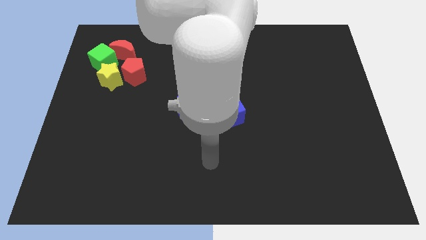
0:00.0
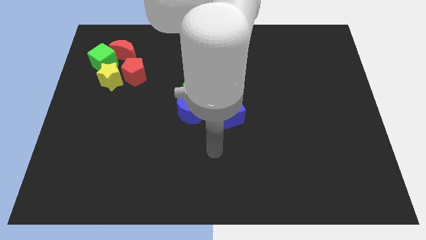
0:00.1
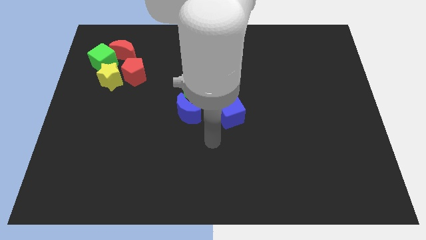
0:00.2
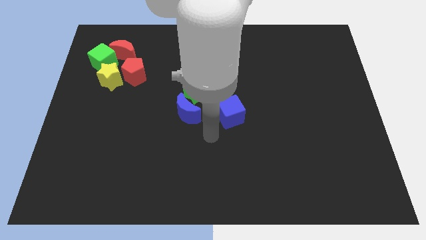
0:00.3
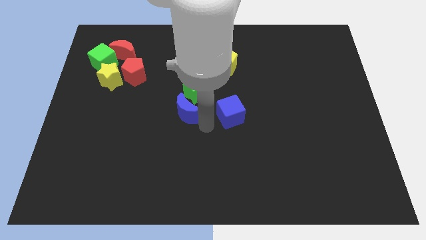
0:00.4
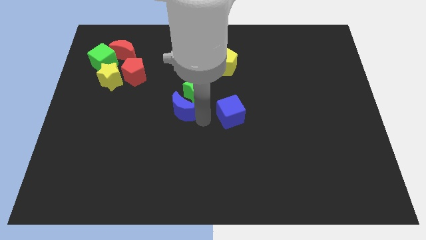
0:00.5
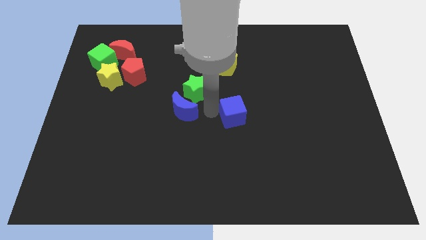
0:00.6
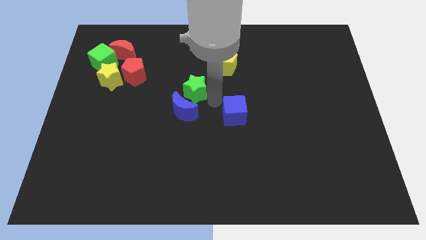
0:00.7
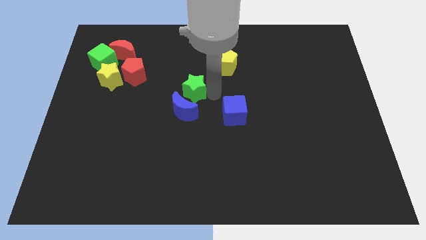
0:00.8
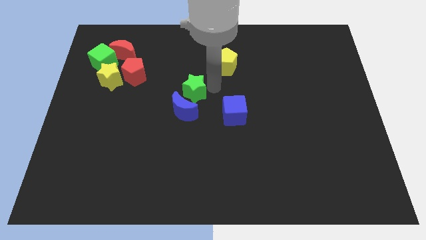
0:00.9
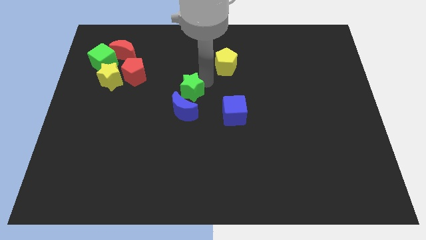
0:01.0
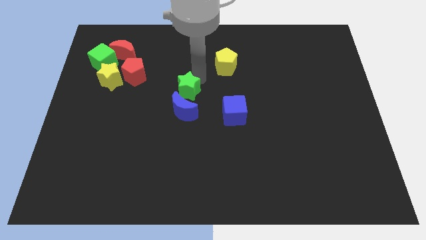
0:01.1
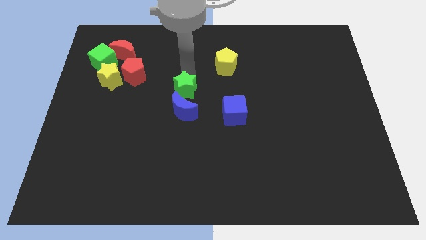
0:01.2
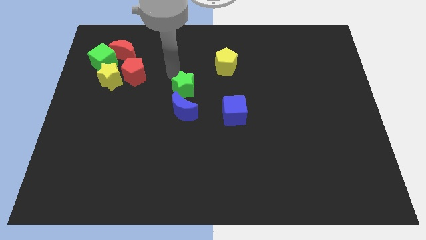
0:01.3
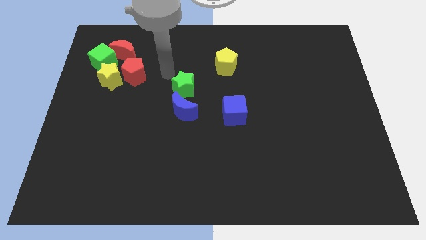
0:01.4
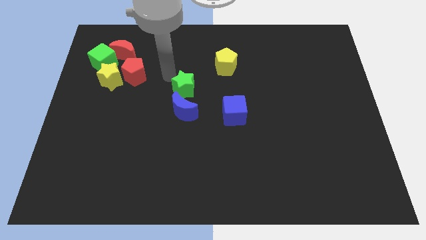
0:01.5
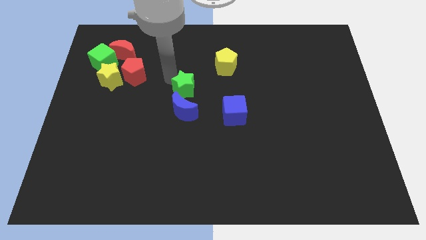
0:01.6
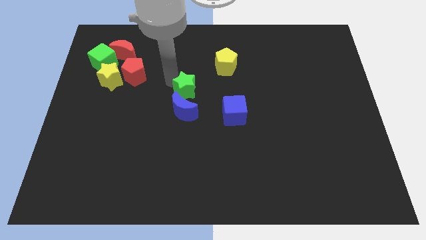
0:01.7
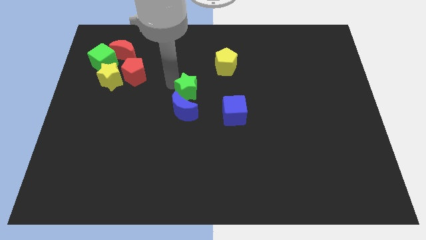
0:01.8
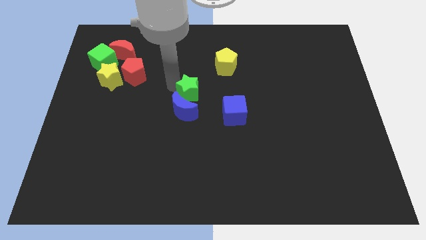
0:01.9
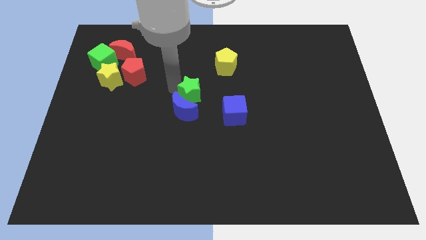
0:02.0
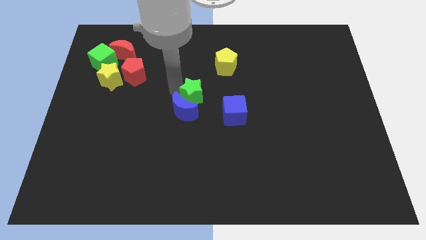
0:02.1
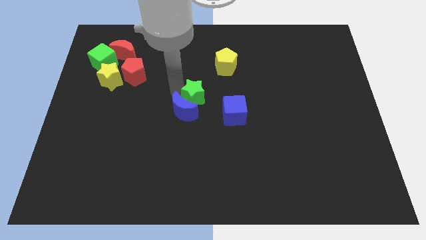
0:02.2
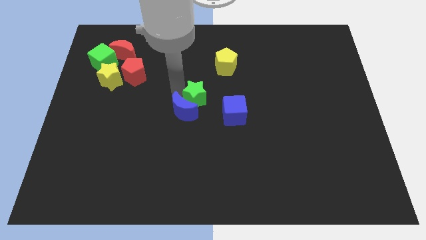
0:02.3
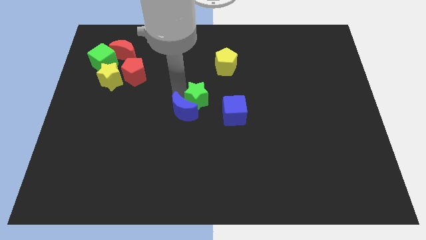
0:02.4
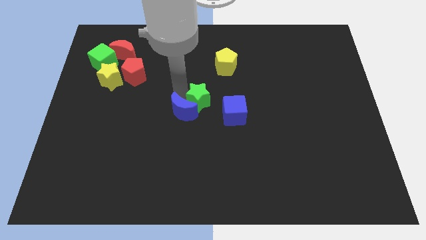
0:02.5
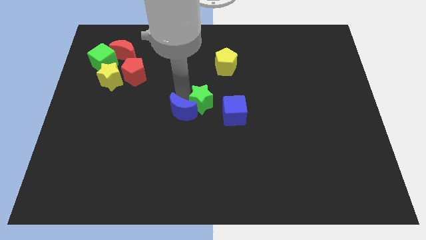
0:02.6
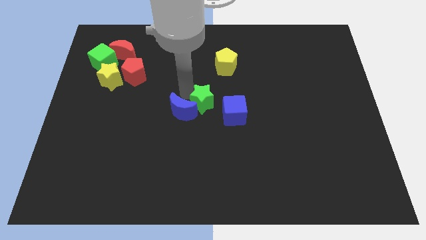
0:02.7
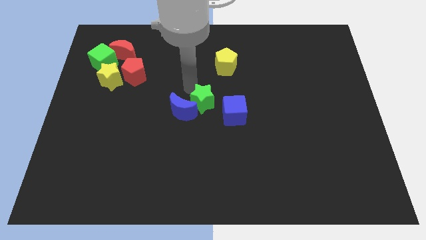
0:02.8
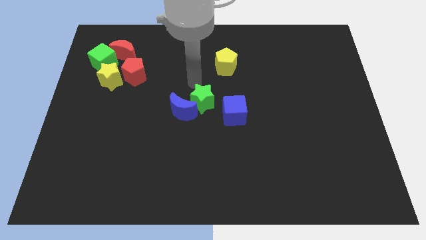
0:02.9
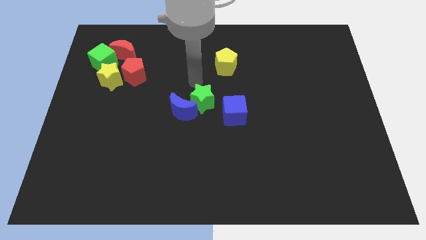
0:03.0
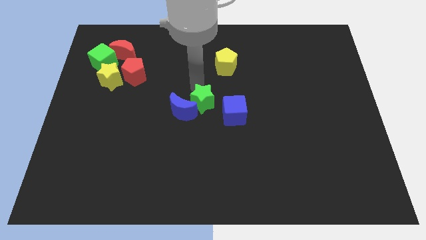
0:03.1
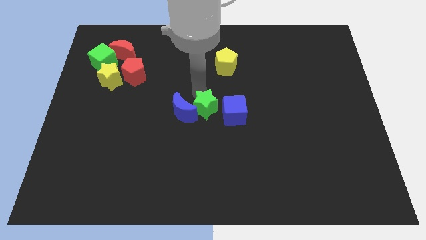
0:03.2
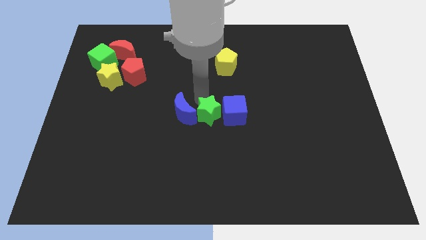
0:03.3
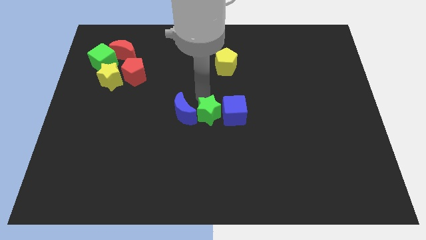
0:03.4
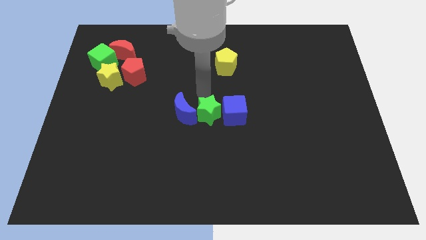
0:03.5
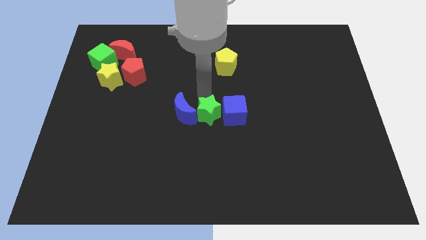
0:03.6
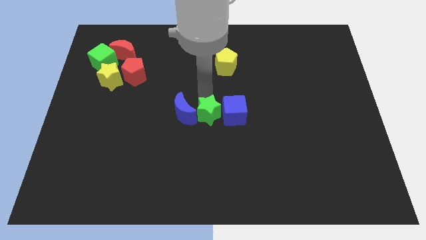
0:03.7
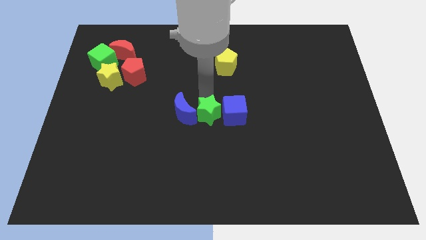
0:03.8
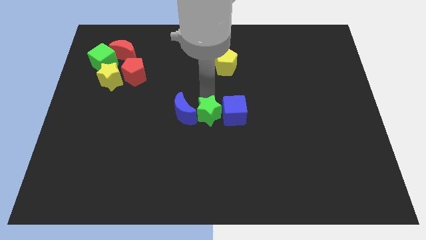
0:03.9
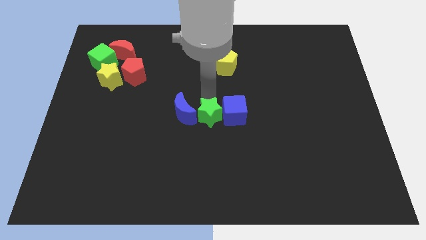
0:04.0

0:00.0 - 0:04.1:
slightly slide the green star downwards

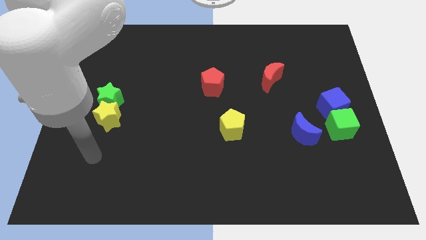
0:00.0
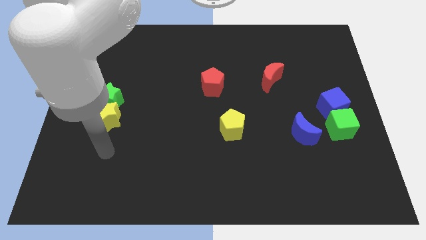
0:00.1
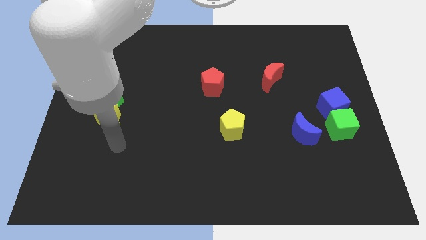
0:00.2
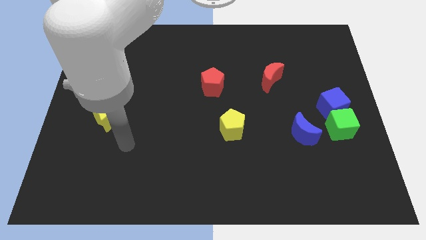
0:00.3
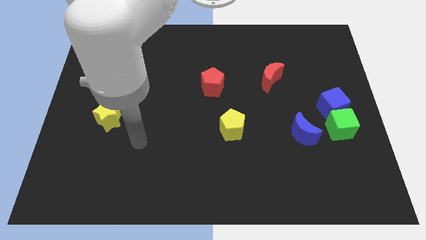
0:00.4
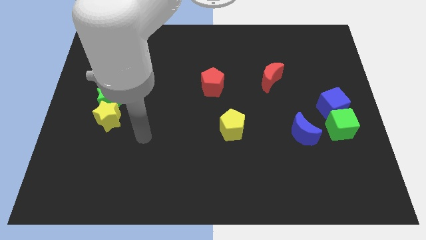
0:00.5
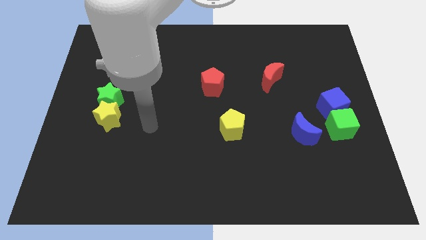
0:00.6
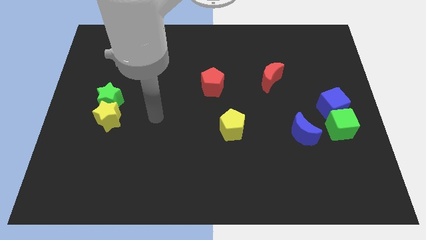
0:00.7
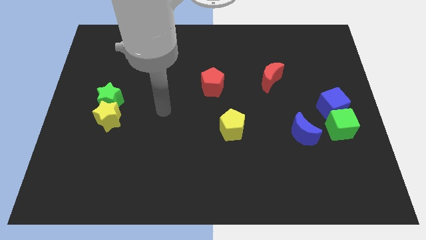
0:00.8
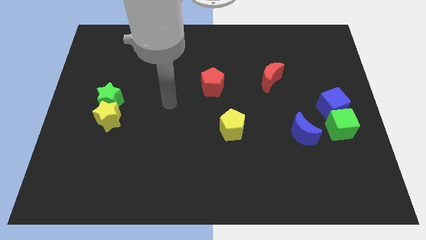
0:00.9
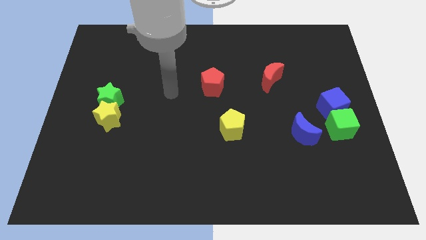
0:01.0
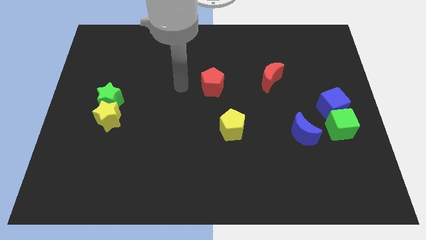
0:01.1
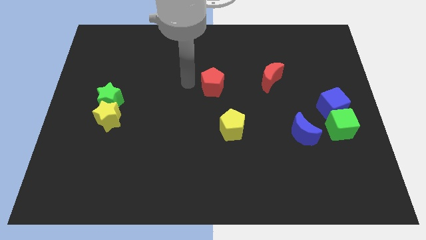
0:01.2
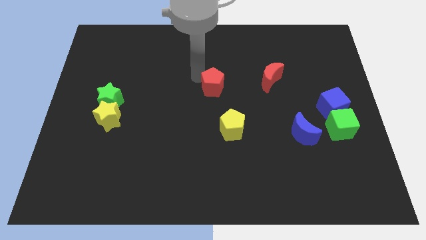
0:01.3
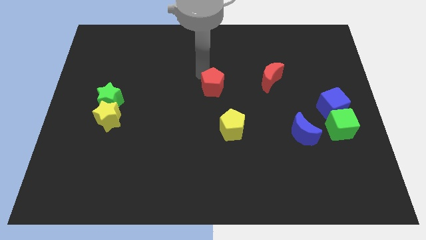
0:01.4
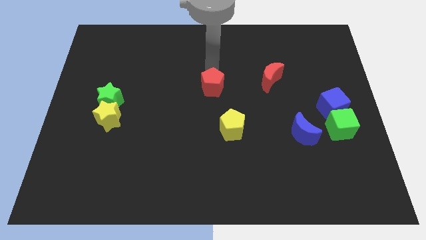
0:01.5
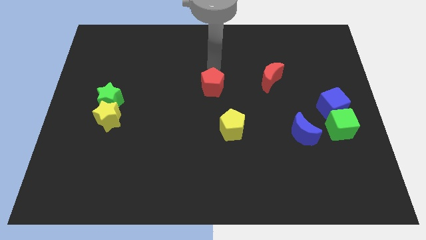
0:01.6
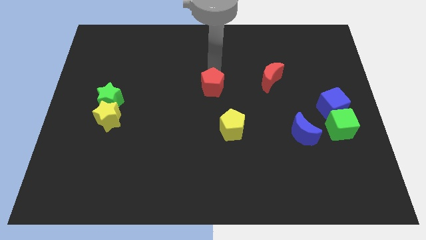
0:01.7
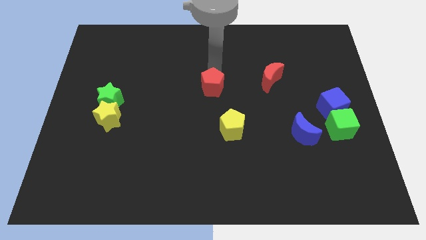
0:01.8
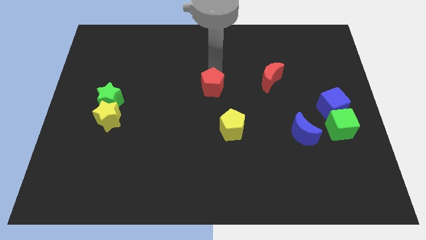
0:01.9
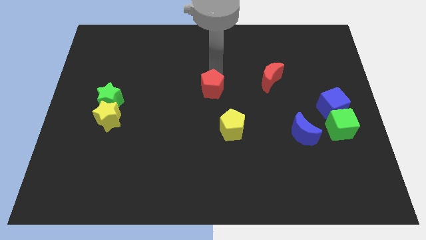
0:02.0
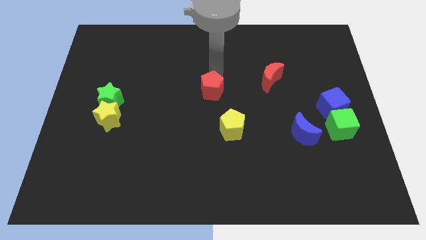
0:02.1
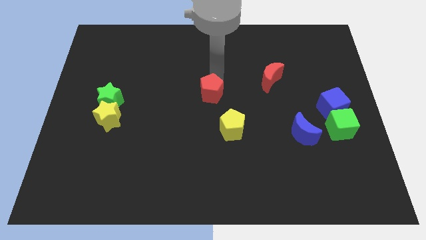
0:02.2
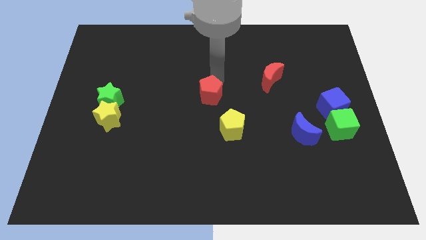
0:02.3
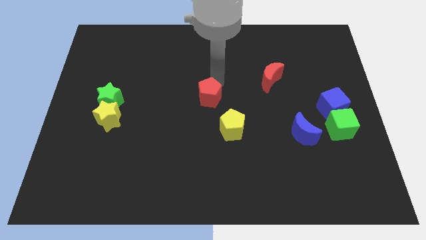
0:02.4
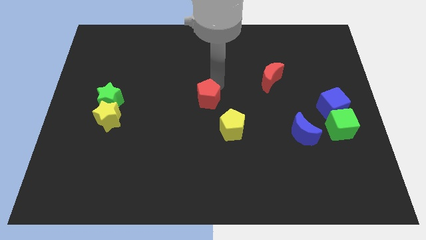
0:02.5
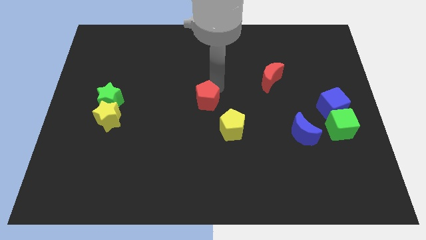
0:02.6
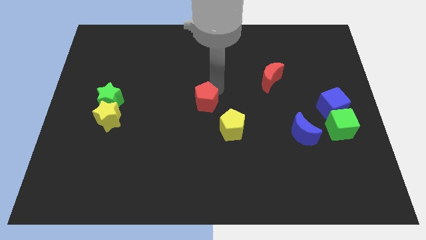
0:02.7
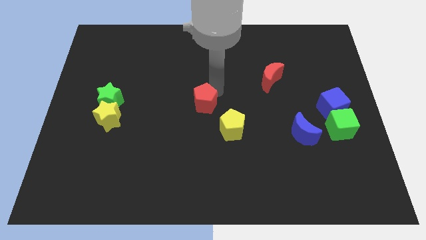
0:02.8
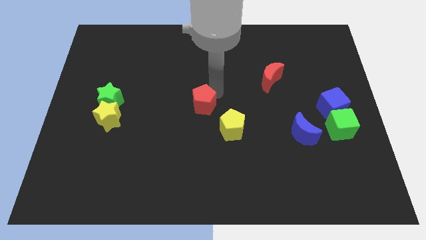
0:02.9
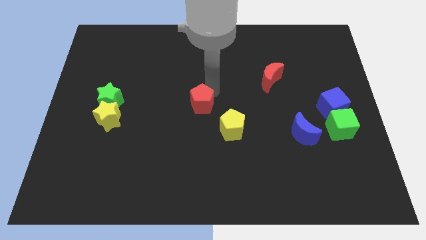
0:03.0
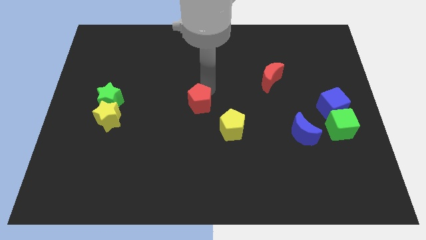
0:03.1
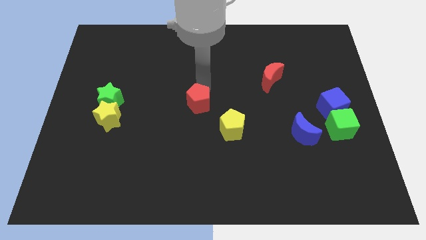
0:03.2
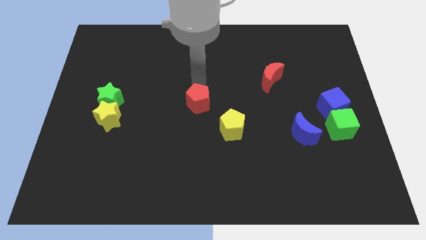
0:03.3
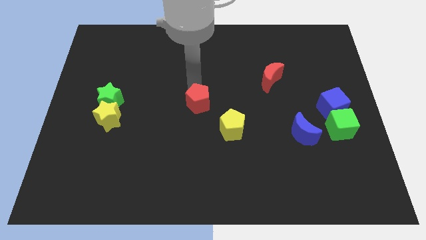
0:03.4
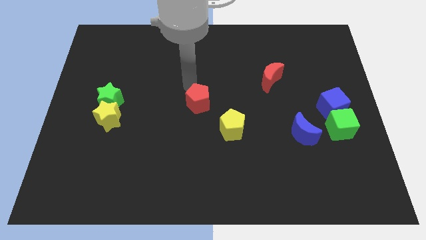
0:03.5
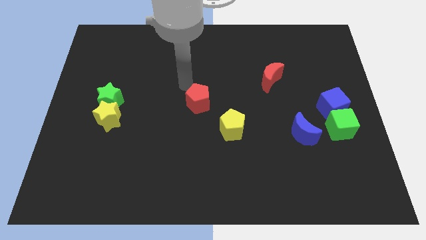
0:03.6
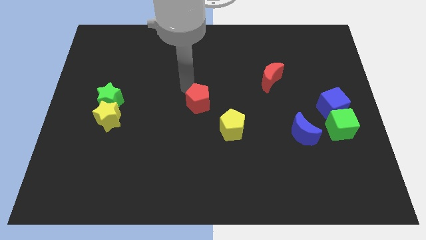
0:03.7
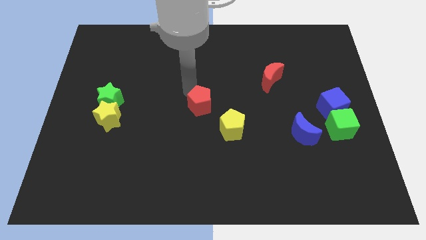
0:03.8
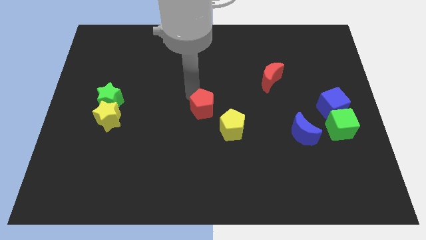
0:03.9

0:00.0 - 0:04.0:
slightly push the red pentagon downwards

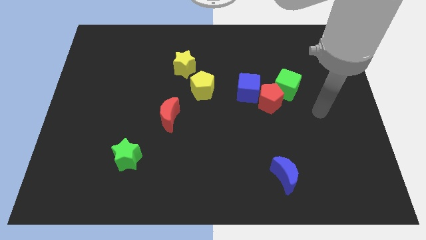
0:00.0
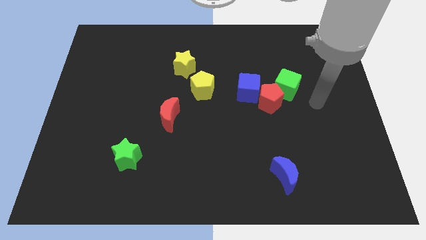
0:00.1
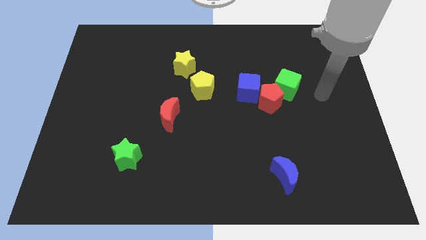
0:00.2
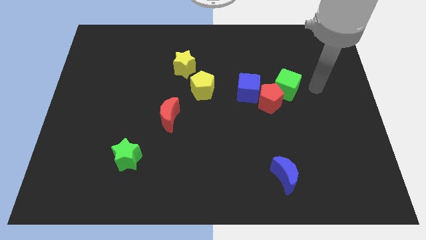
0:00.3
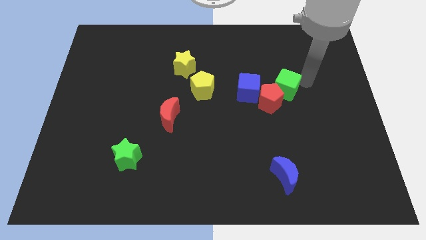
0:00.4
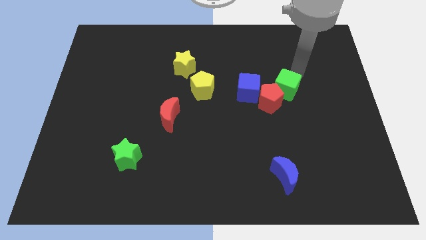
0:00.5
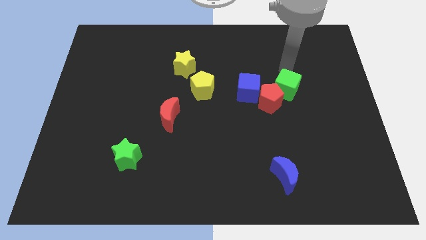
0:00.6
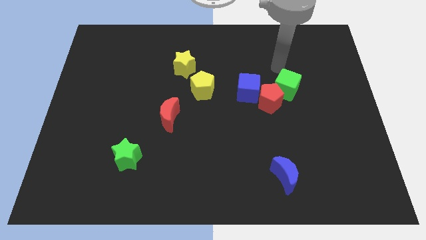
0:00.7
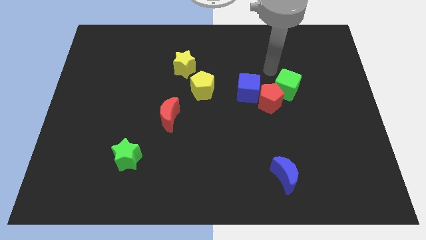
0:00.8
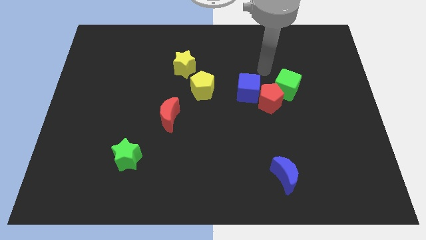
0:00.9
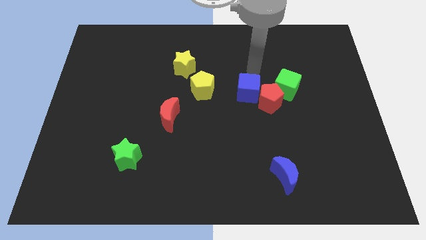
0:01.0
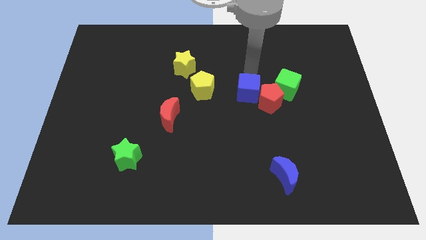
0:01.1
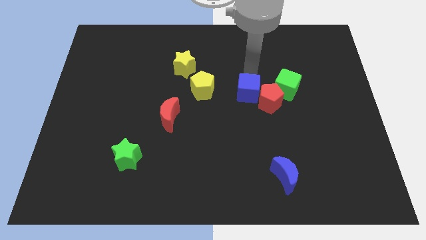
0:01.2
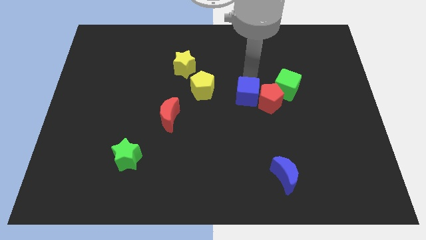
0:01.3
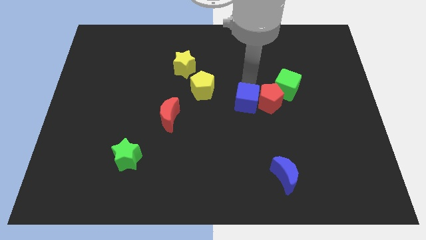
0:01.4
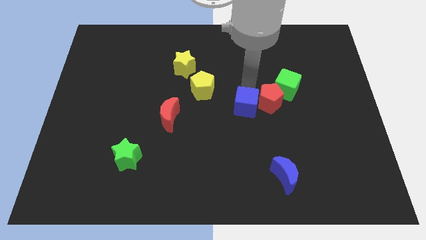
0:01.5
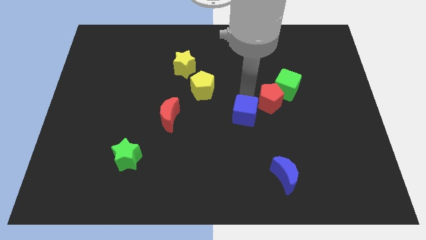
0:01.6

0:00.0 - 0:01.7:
slide the blue cube down a bit
